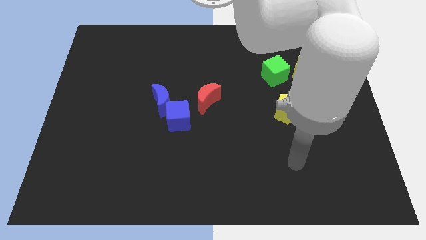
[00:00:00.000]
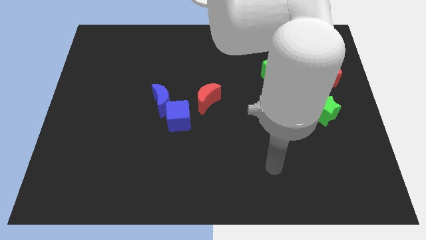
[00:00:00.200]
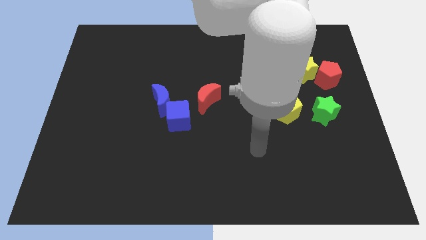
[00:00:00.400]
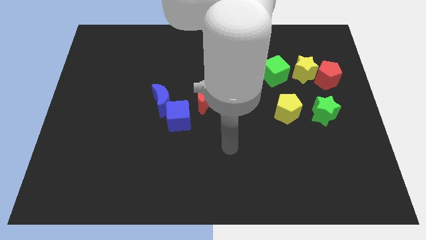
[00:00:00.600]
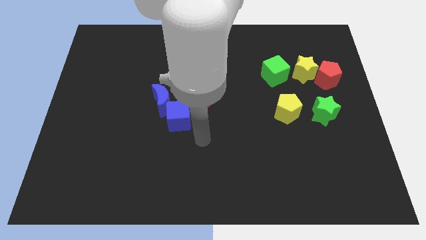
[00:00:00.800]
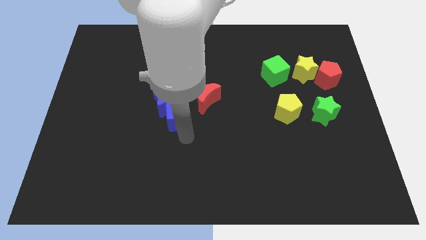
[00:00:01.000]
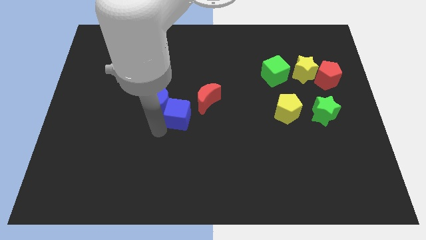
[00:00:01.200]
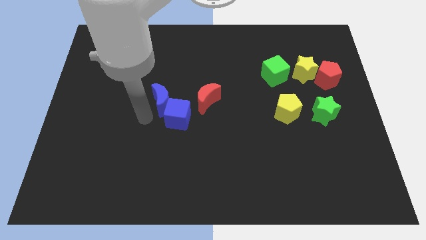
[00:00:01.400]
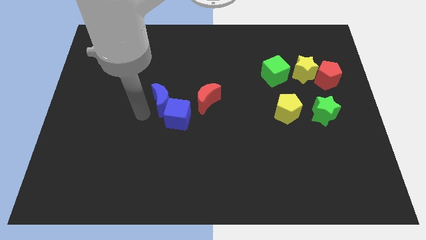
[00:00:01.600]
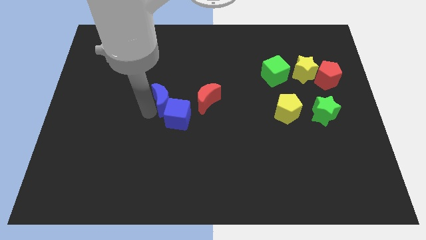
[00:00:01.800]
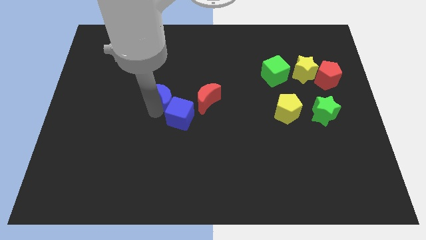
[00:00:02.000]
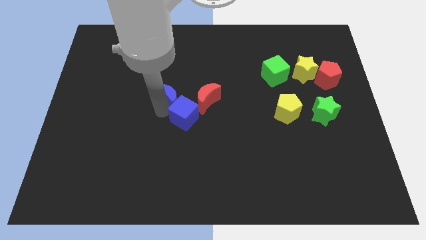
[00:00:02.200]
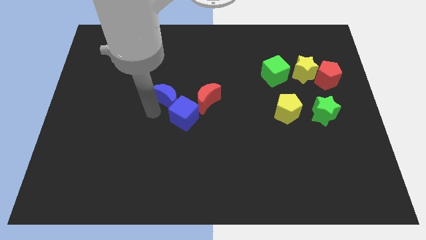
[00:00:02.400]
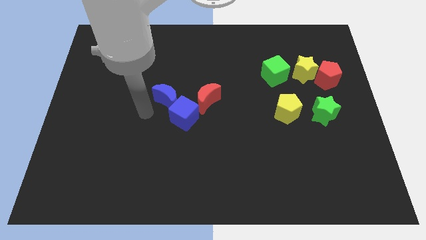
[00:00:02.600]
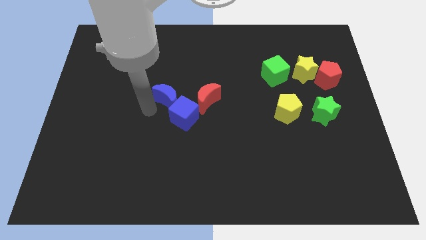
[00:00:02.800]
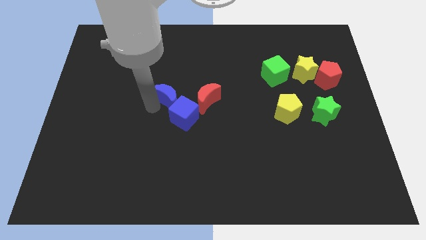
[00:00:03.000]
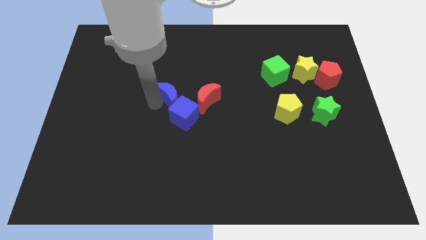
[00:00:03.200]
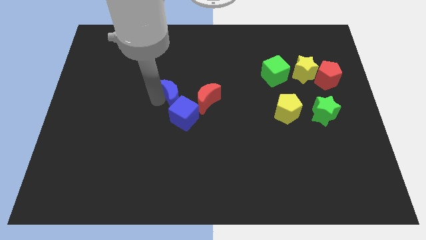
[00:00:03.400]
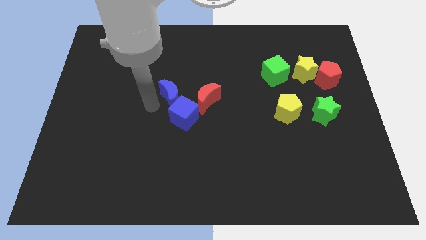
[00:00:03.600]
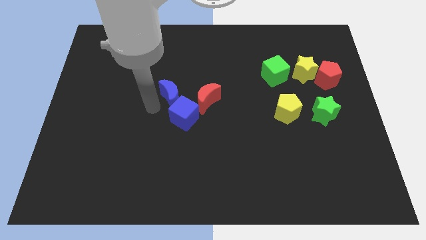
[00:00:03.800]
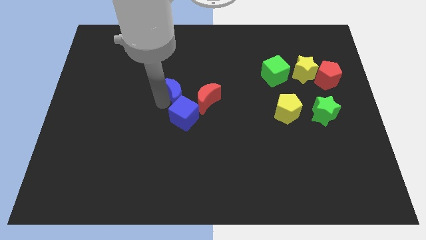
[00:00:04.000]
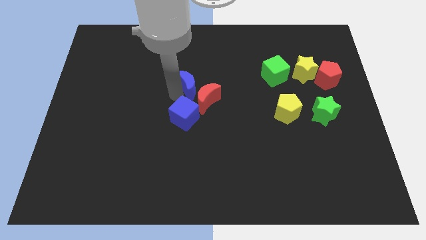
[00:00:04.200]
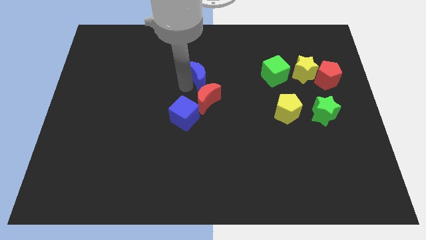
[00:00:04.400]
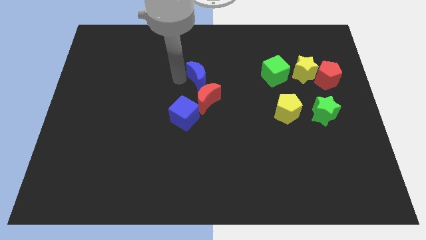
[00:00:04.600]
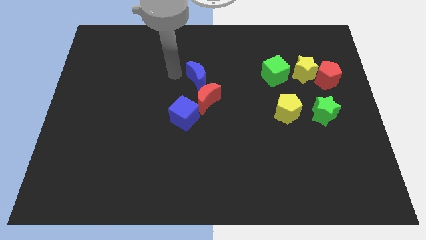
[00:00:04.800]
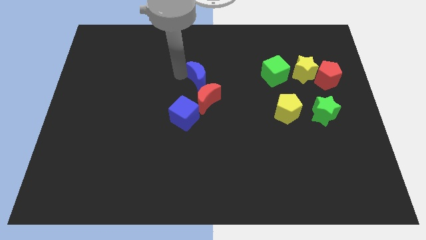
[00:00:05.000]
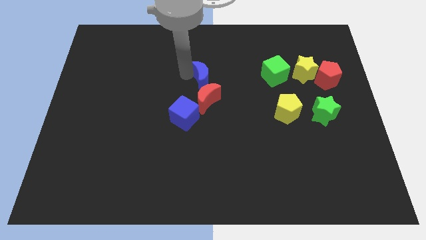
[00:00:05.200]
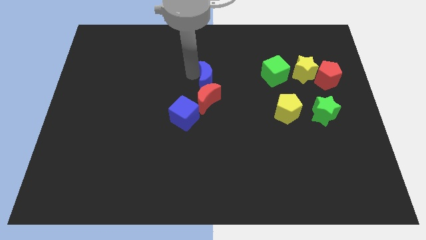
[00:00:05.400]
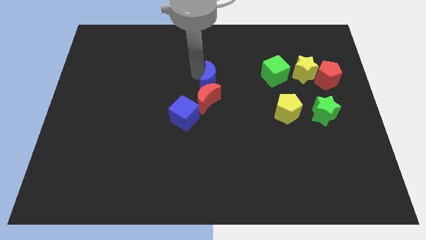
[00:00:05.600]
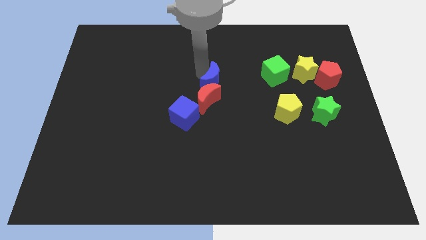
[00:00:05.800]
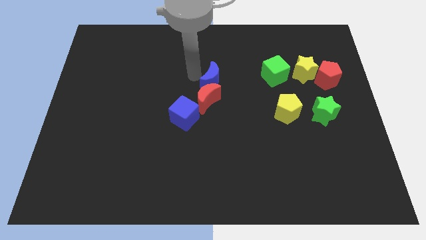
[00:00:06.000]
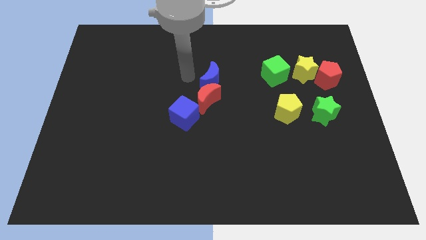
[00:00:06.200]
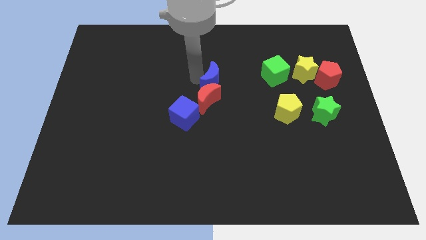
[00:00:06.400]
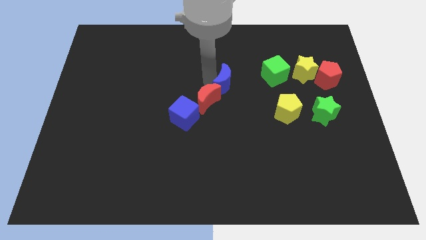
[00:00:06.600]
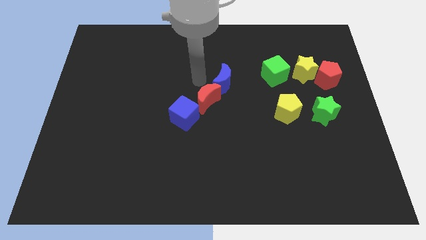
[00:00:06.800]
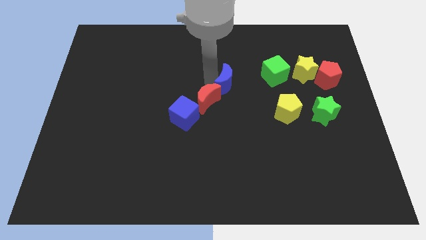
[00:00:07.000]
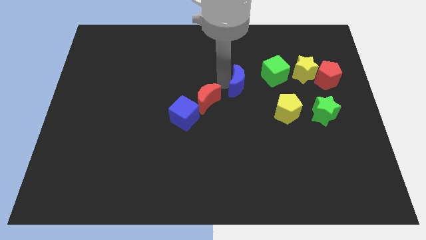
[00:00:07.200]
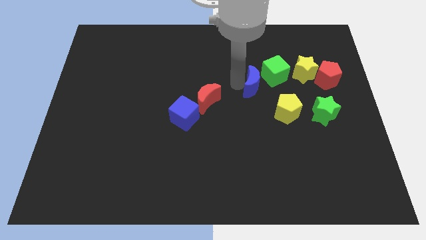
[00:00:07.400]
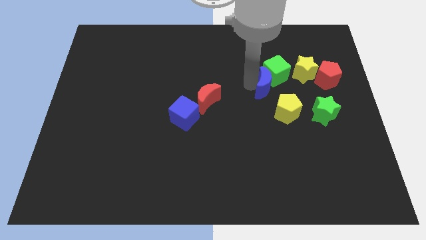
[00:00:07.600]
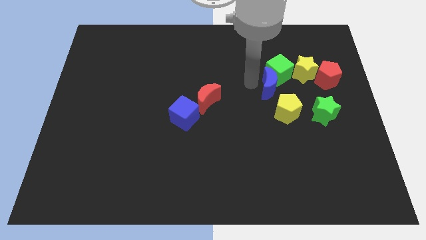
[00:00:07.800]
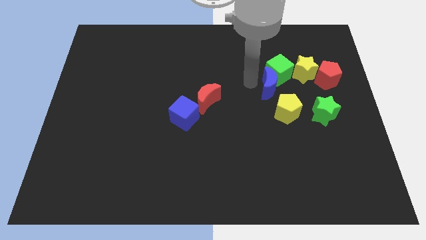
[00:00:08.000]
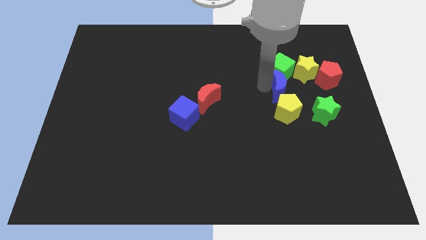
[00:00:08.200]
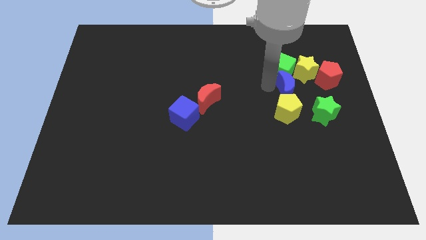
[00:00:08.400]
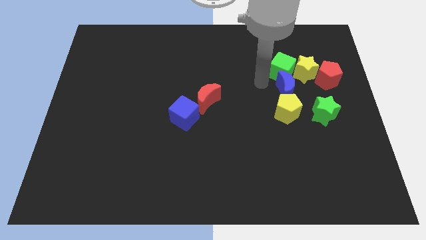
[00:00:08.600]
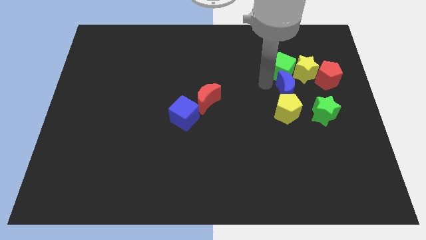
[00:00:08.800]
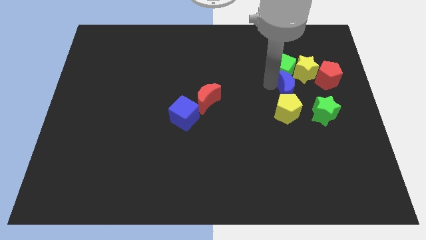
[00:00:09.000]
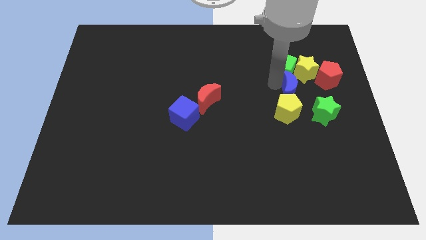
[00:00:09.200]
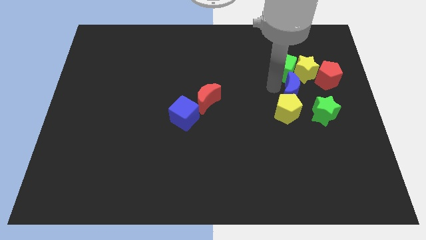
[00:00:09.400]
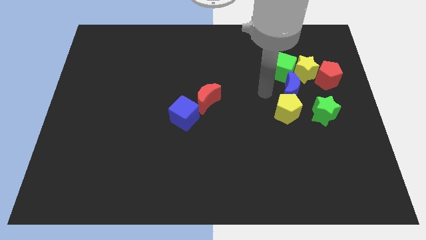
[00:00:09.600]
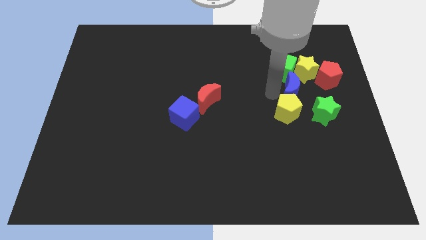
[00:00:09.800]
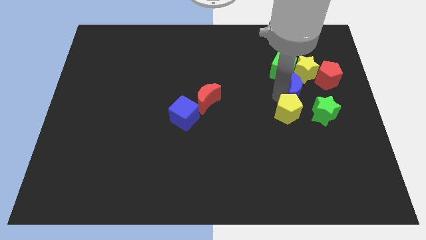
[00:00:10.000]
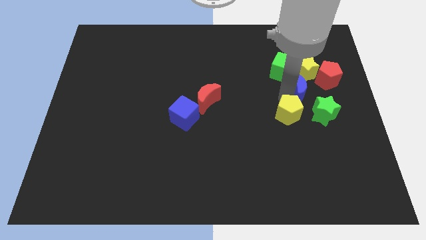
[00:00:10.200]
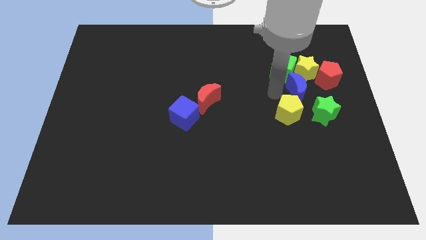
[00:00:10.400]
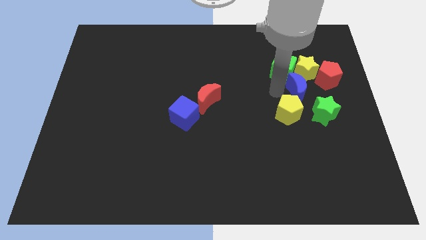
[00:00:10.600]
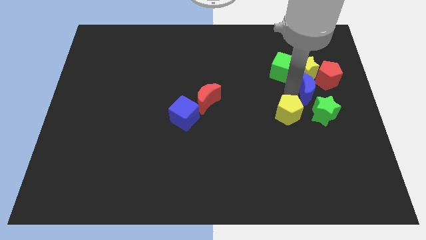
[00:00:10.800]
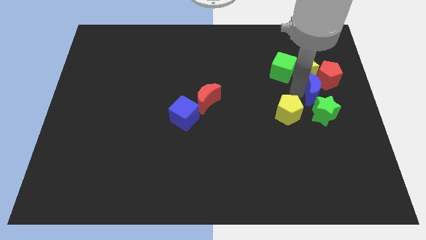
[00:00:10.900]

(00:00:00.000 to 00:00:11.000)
move the blue moon next to the red pentagon

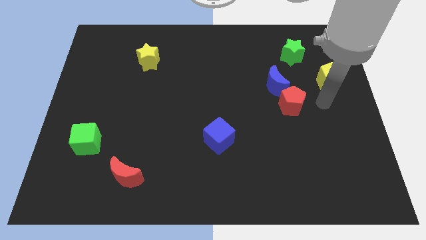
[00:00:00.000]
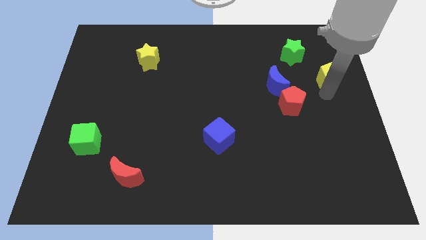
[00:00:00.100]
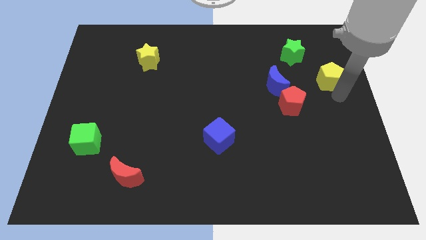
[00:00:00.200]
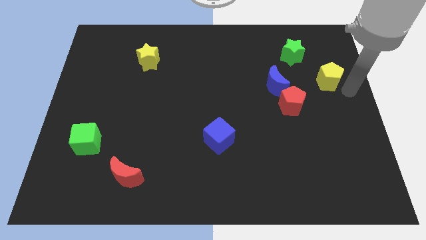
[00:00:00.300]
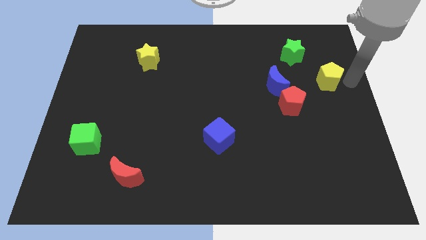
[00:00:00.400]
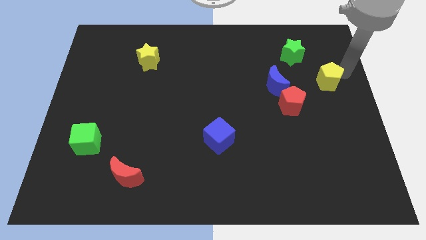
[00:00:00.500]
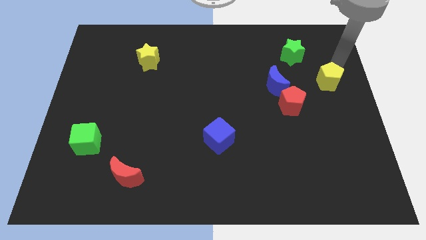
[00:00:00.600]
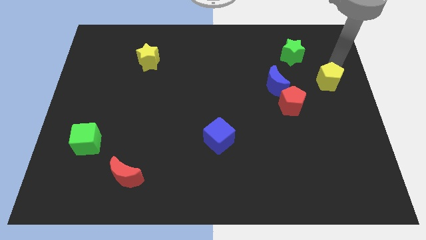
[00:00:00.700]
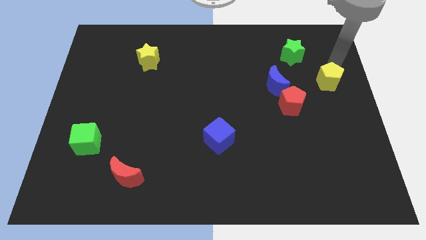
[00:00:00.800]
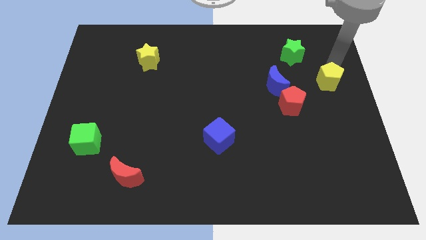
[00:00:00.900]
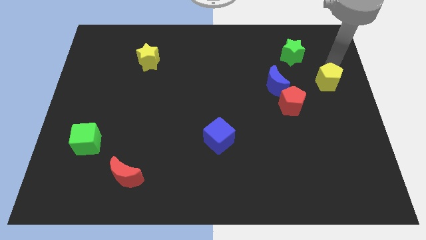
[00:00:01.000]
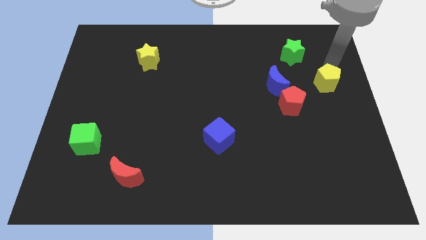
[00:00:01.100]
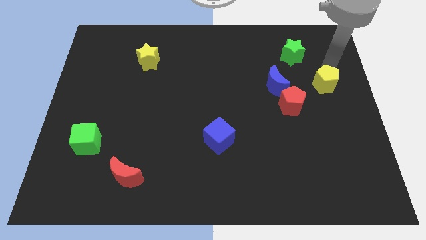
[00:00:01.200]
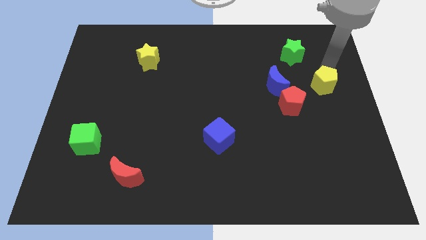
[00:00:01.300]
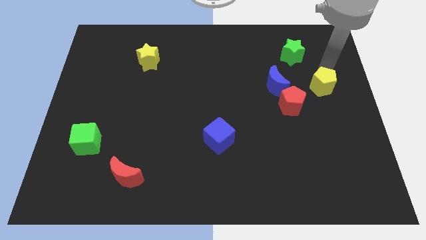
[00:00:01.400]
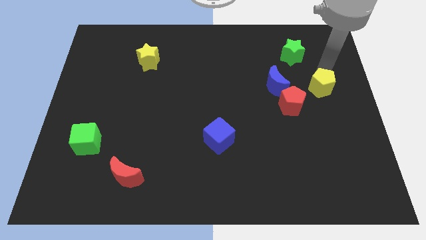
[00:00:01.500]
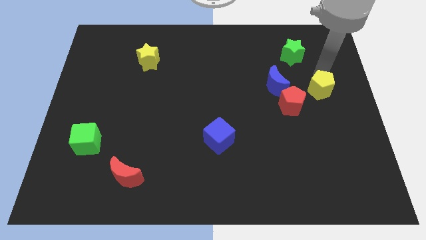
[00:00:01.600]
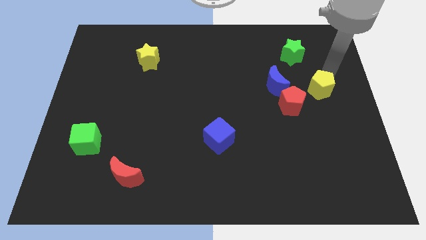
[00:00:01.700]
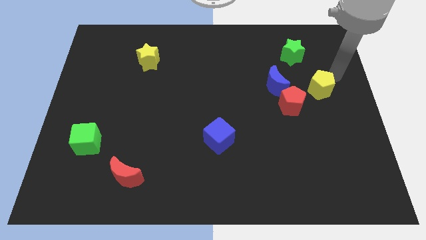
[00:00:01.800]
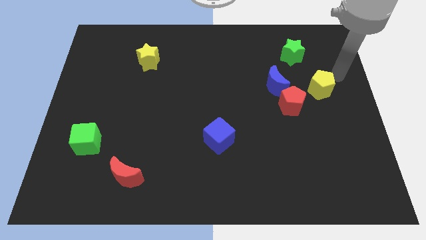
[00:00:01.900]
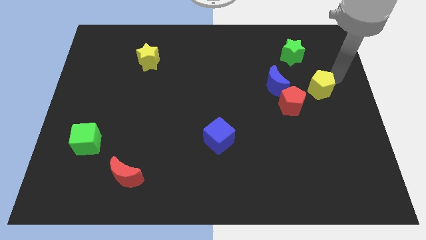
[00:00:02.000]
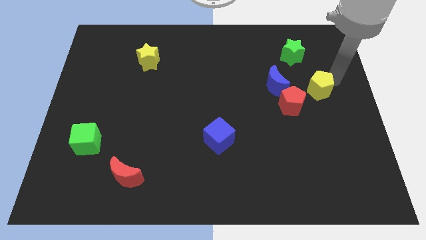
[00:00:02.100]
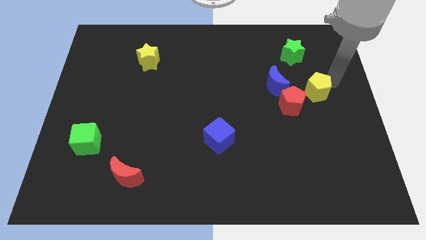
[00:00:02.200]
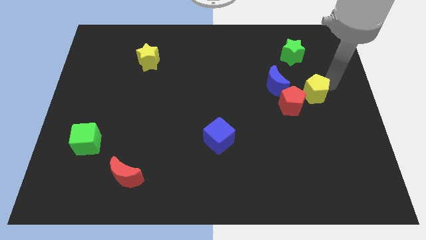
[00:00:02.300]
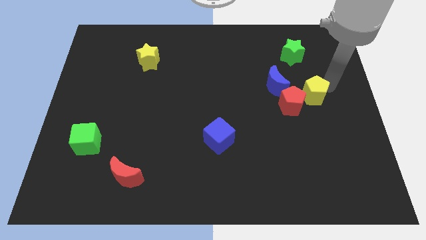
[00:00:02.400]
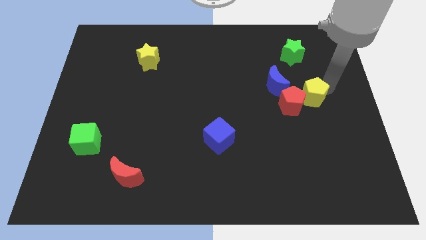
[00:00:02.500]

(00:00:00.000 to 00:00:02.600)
push the yellow pentagon towards the red pentagon
